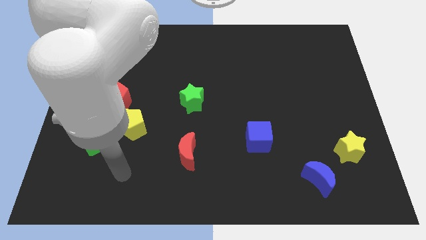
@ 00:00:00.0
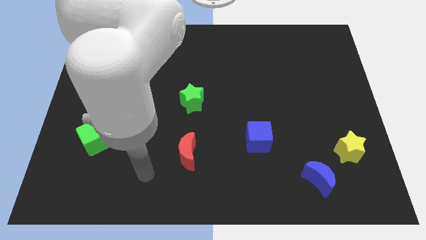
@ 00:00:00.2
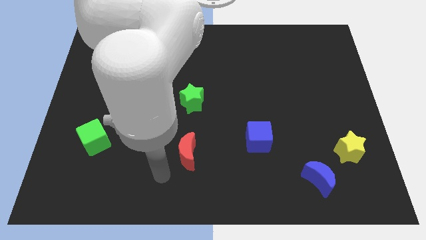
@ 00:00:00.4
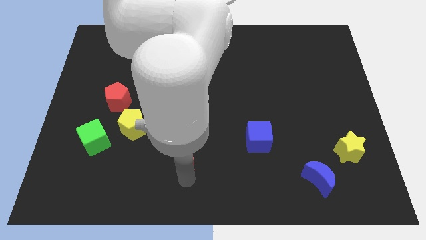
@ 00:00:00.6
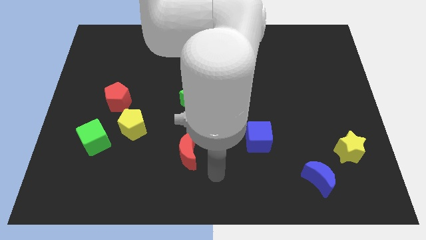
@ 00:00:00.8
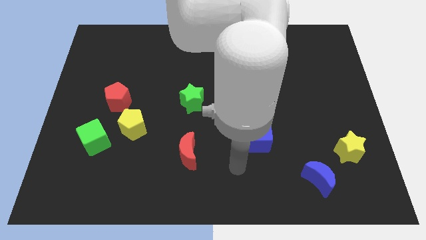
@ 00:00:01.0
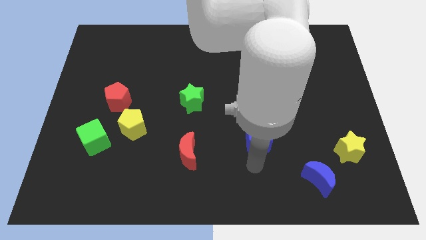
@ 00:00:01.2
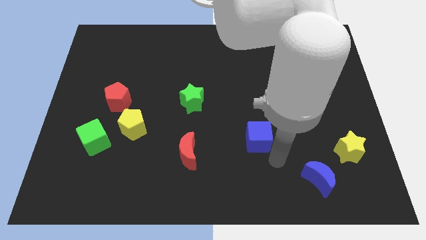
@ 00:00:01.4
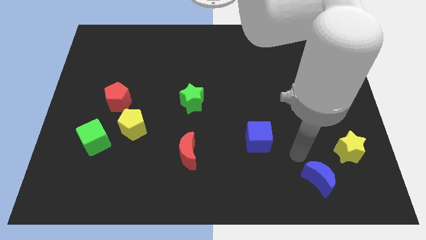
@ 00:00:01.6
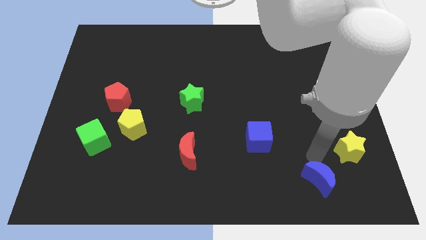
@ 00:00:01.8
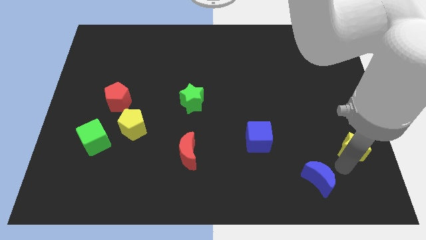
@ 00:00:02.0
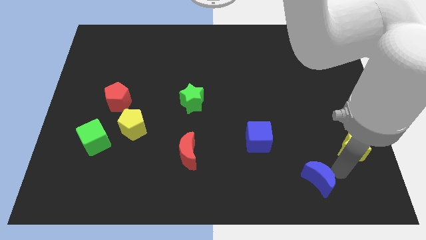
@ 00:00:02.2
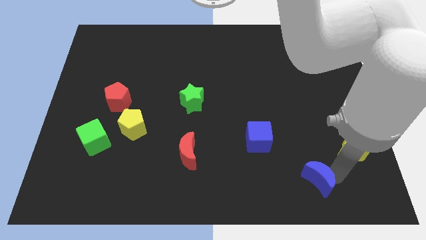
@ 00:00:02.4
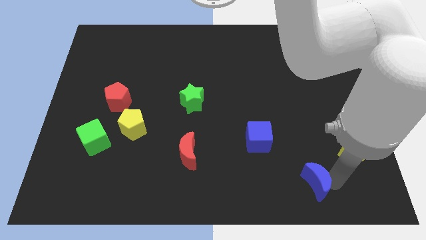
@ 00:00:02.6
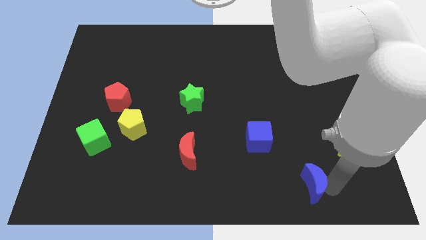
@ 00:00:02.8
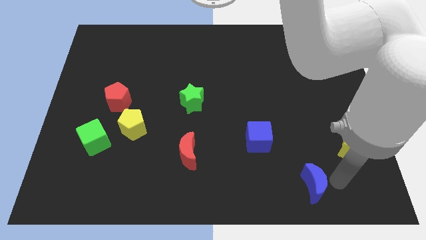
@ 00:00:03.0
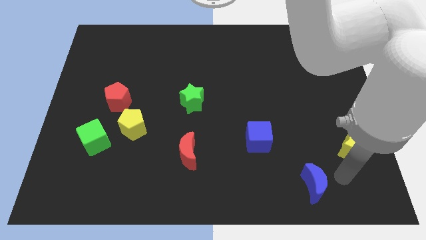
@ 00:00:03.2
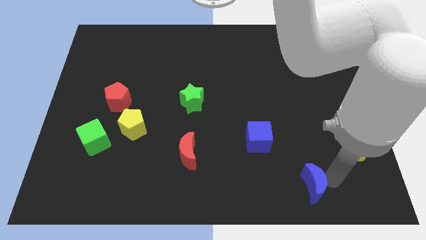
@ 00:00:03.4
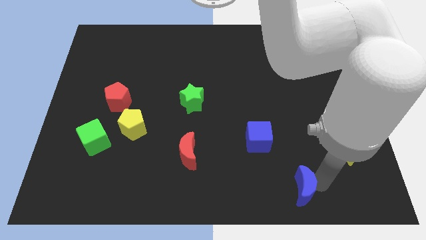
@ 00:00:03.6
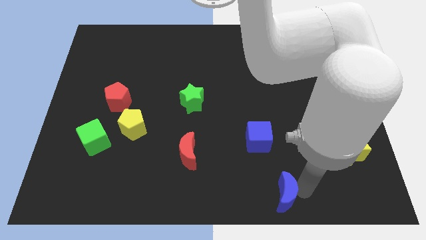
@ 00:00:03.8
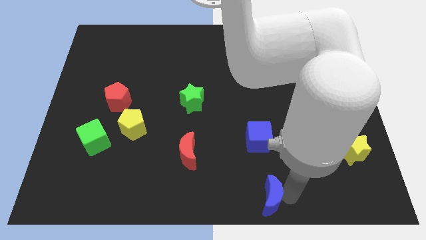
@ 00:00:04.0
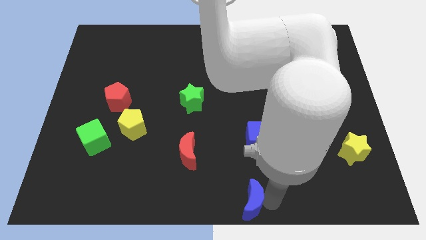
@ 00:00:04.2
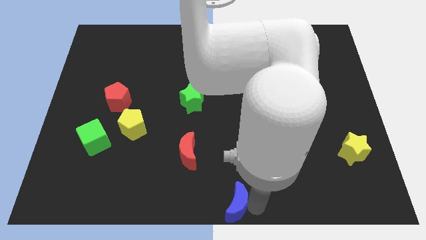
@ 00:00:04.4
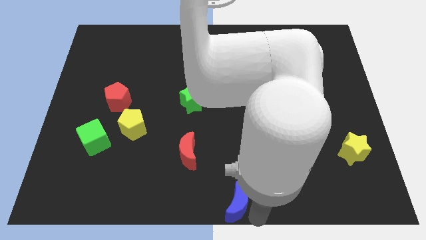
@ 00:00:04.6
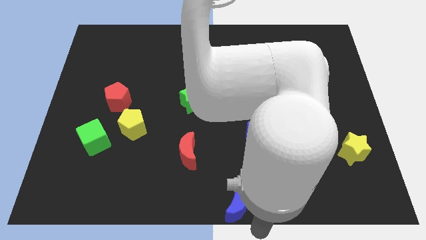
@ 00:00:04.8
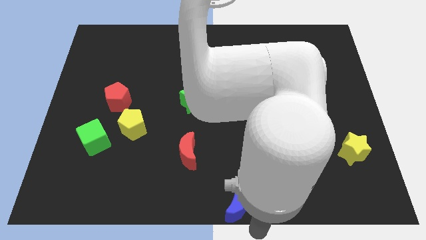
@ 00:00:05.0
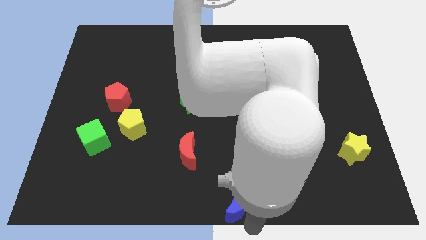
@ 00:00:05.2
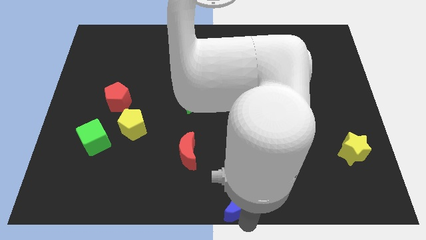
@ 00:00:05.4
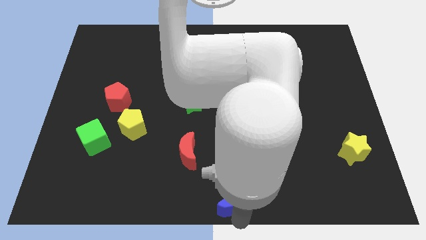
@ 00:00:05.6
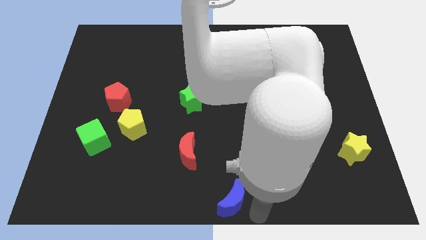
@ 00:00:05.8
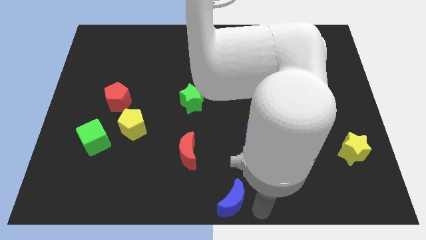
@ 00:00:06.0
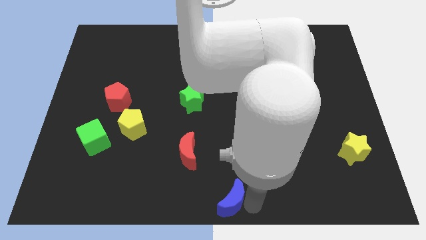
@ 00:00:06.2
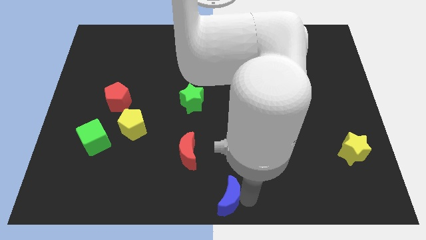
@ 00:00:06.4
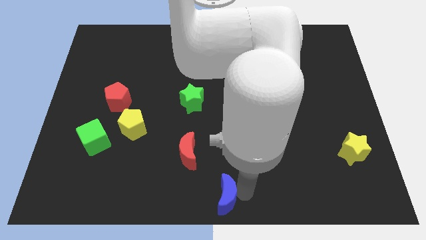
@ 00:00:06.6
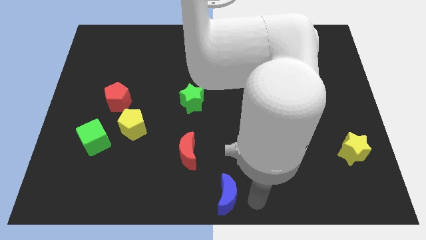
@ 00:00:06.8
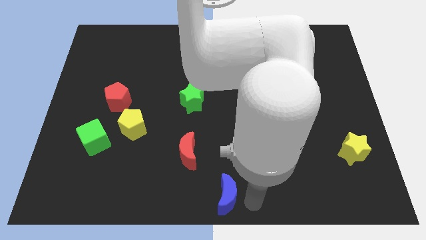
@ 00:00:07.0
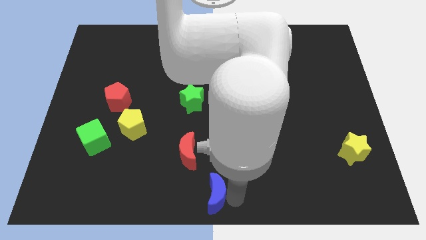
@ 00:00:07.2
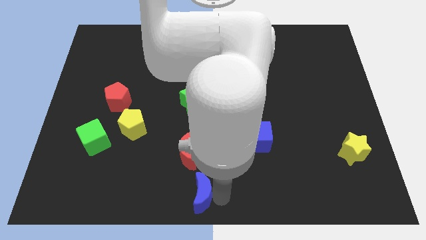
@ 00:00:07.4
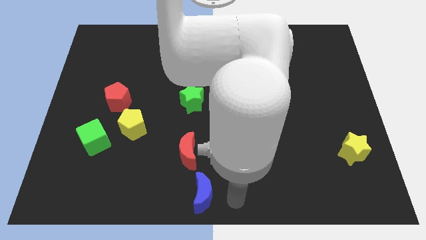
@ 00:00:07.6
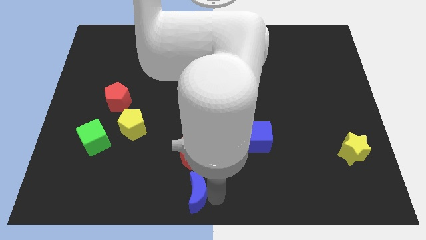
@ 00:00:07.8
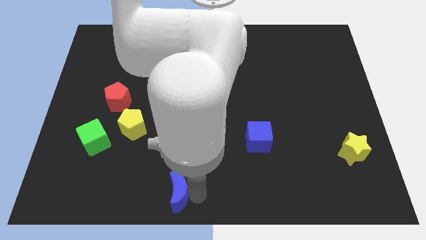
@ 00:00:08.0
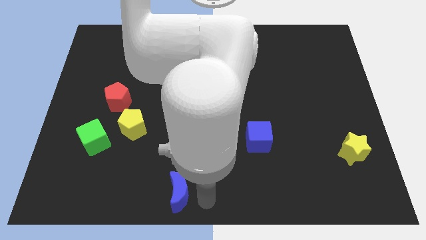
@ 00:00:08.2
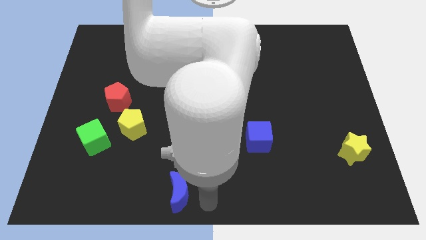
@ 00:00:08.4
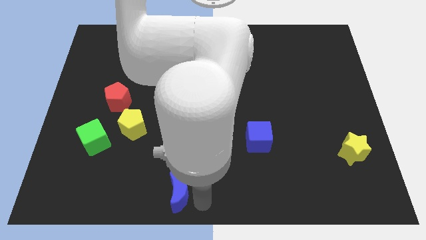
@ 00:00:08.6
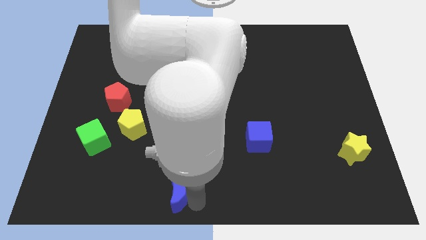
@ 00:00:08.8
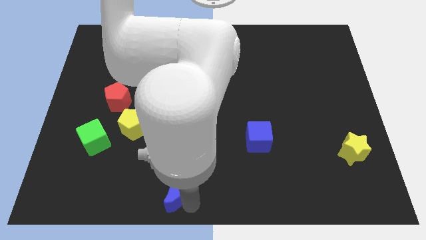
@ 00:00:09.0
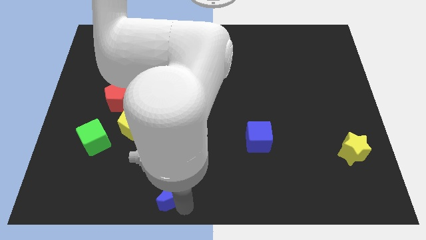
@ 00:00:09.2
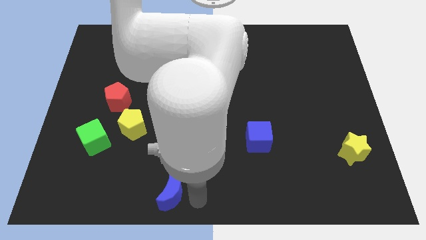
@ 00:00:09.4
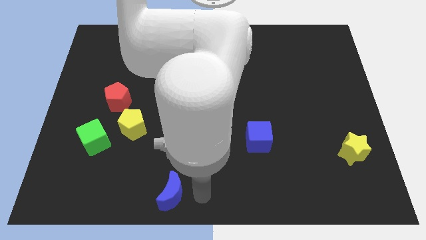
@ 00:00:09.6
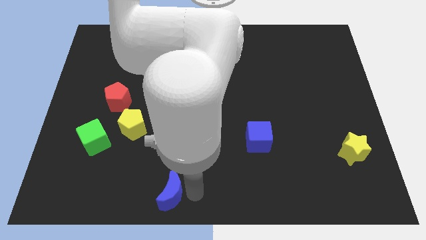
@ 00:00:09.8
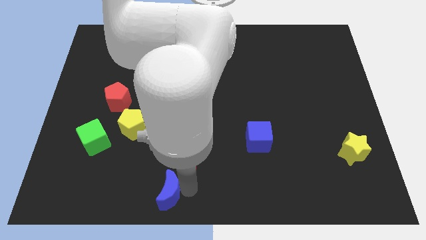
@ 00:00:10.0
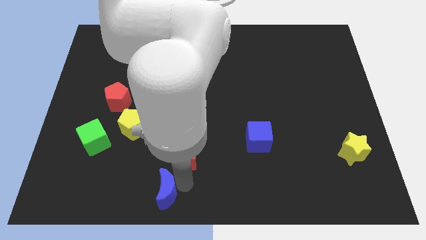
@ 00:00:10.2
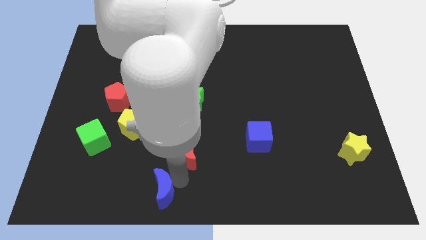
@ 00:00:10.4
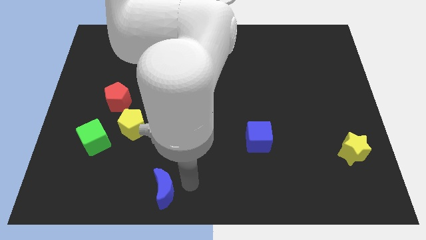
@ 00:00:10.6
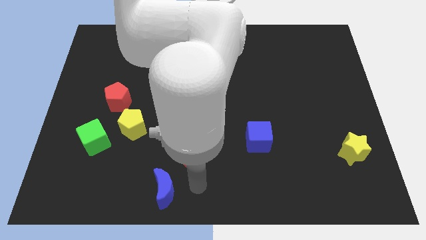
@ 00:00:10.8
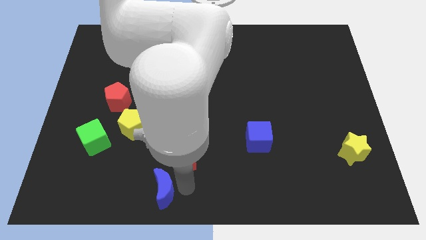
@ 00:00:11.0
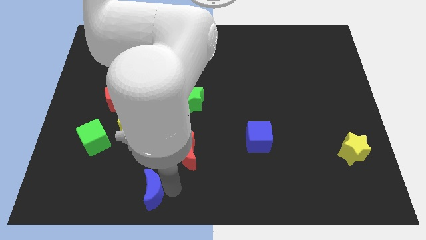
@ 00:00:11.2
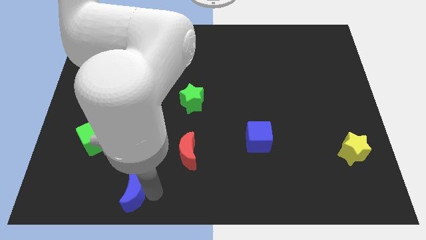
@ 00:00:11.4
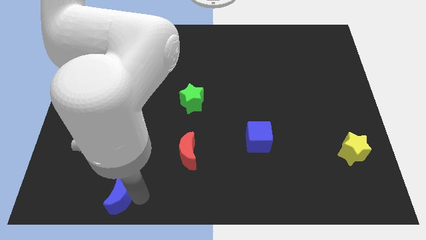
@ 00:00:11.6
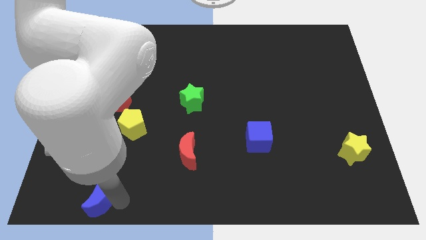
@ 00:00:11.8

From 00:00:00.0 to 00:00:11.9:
put the blue moon to the bottom side of the green cube
